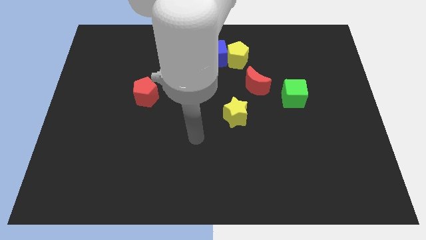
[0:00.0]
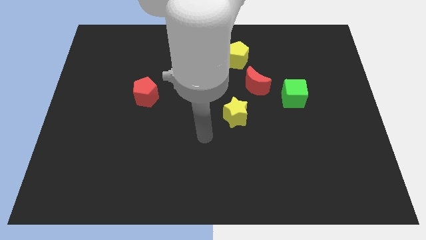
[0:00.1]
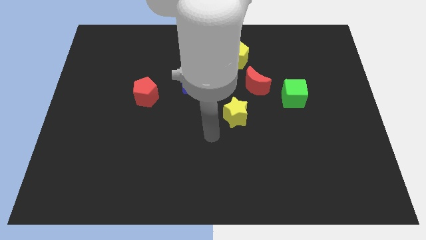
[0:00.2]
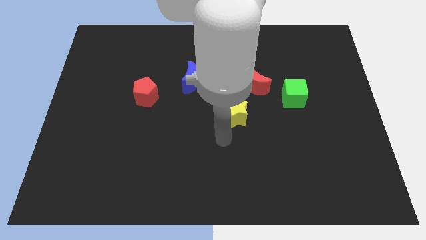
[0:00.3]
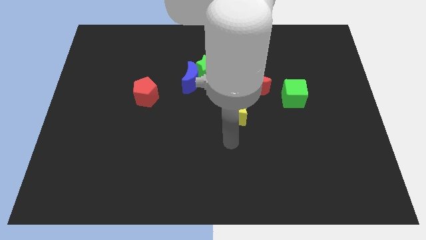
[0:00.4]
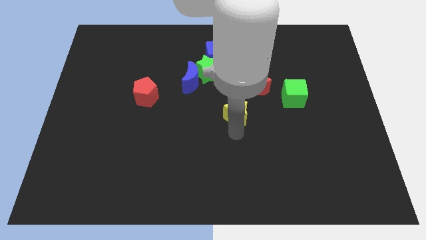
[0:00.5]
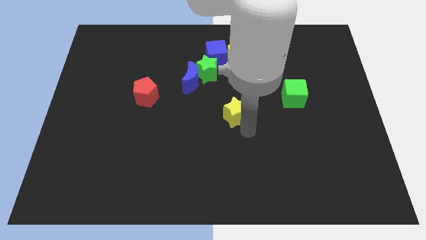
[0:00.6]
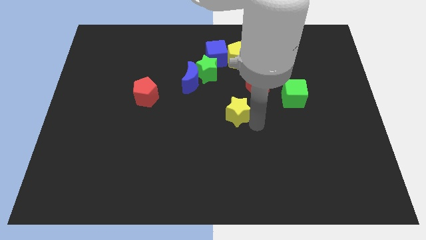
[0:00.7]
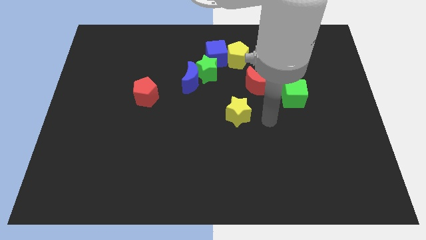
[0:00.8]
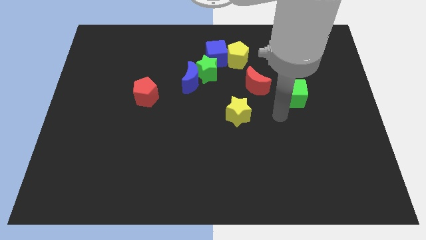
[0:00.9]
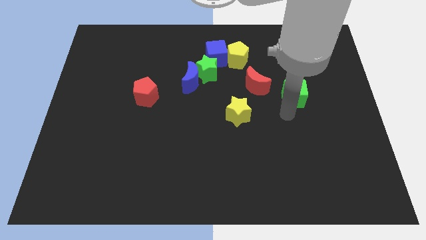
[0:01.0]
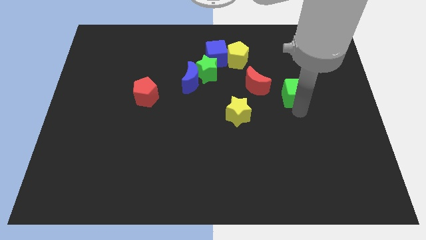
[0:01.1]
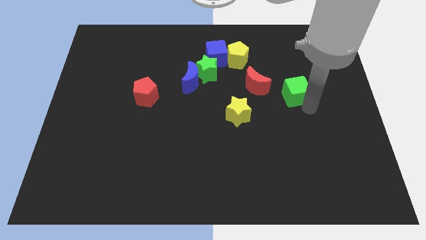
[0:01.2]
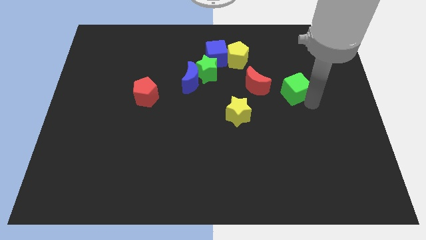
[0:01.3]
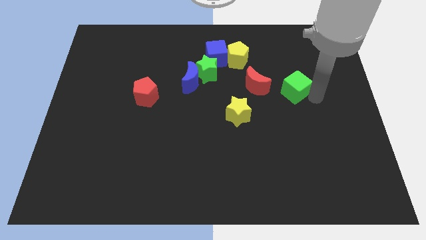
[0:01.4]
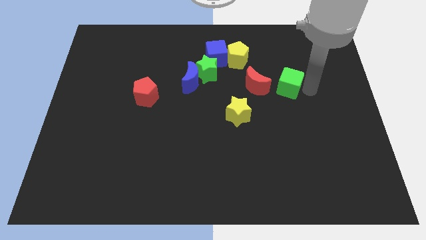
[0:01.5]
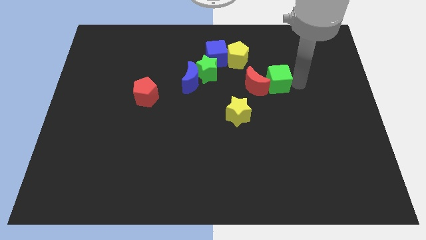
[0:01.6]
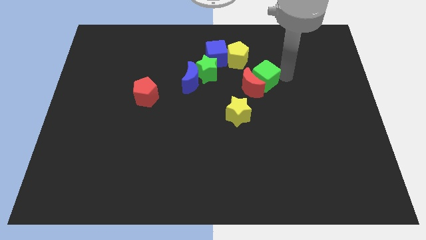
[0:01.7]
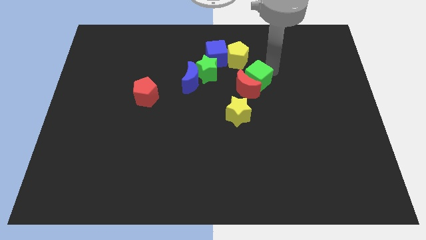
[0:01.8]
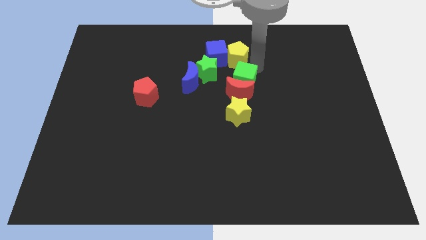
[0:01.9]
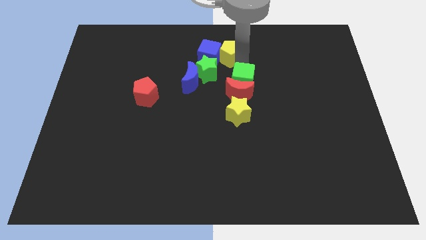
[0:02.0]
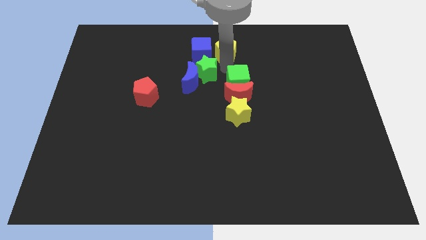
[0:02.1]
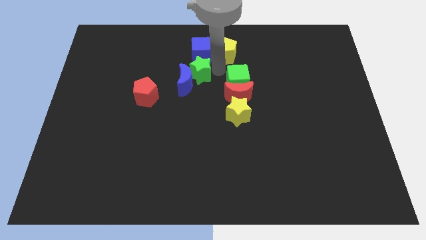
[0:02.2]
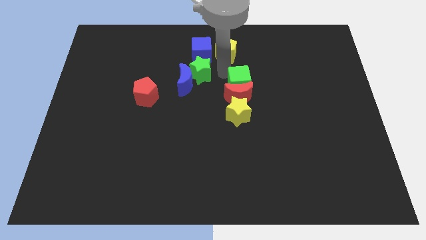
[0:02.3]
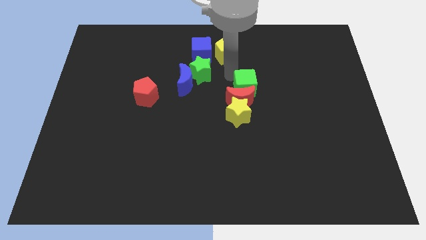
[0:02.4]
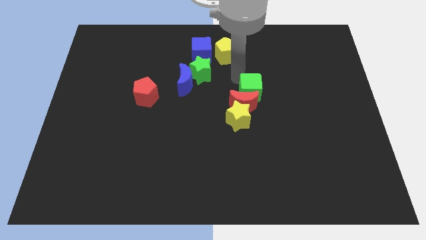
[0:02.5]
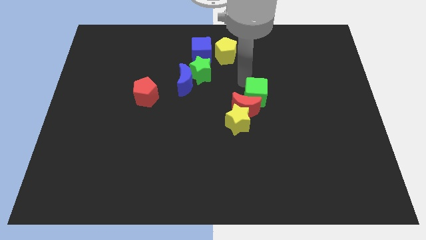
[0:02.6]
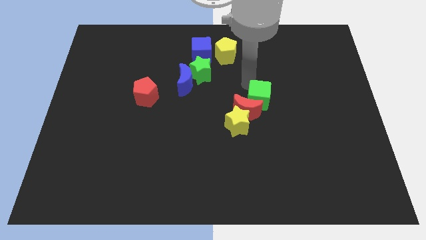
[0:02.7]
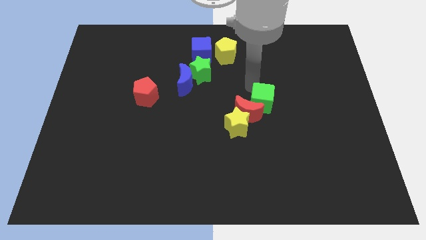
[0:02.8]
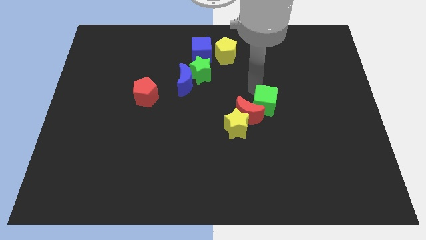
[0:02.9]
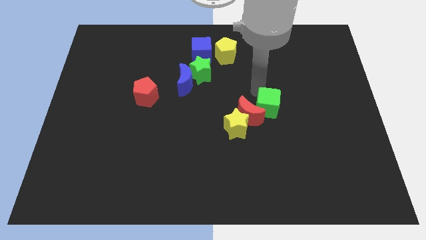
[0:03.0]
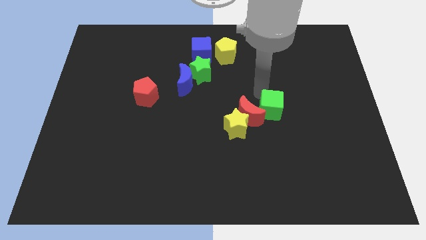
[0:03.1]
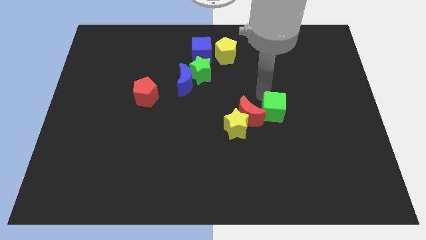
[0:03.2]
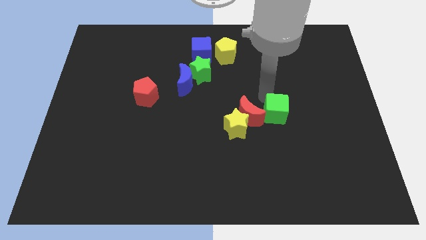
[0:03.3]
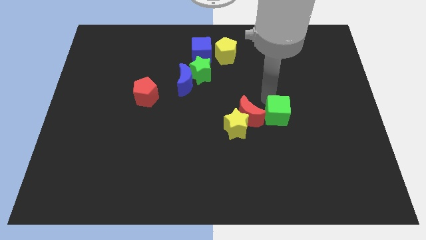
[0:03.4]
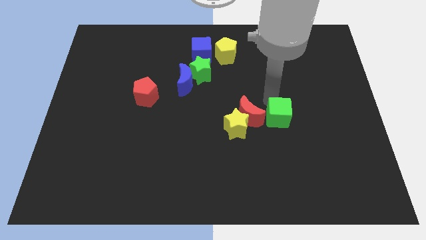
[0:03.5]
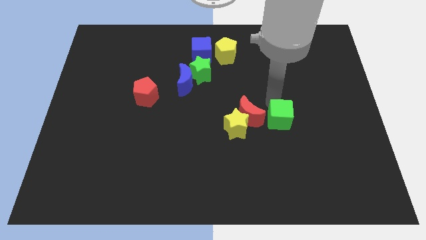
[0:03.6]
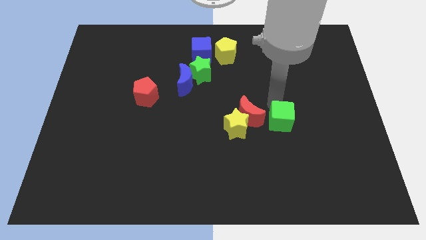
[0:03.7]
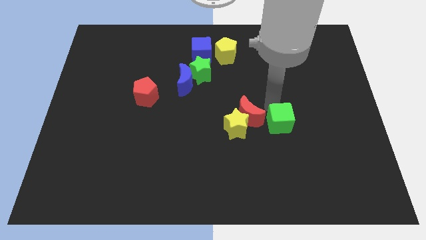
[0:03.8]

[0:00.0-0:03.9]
move the green cube down a little bit

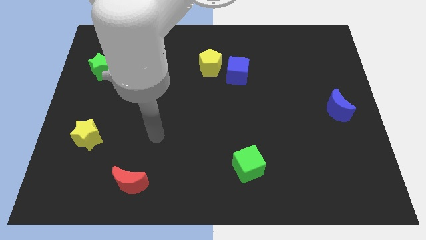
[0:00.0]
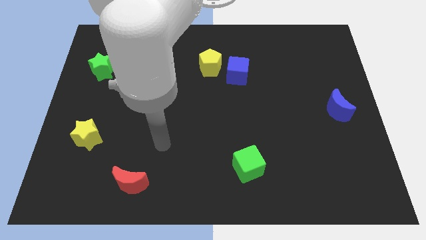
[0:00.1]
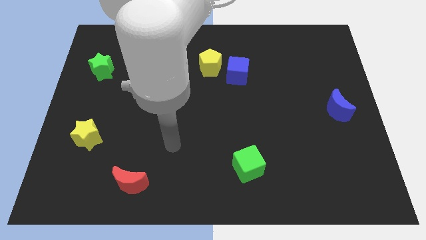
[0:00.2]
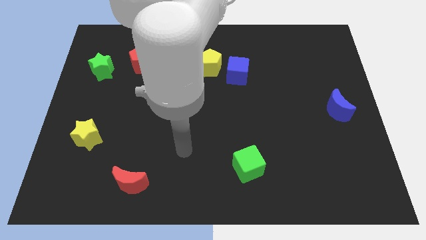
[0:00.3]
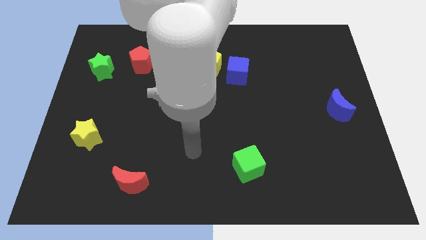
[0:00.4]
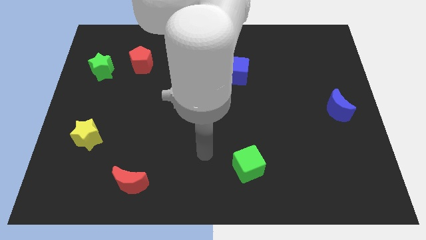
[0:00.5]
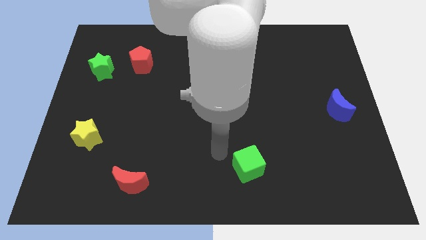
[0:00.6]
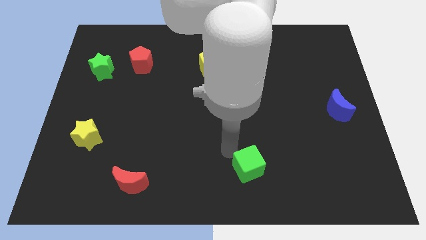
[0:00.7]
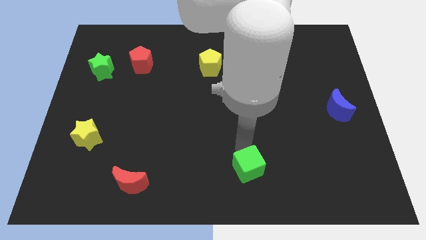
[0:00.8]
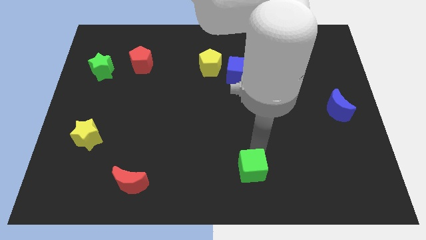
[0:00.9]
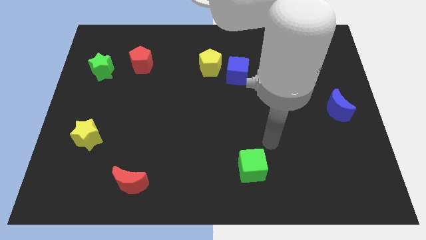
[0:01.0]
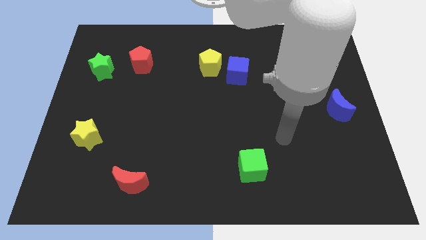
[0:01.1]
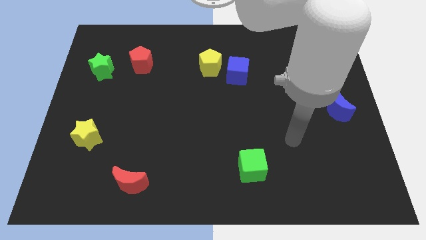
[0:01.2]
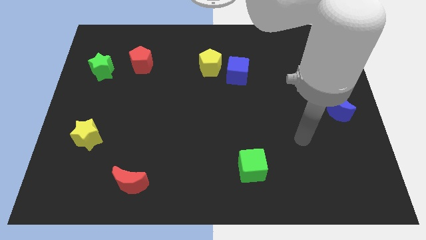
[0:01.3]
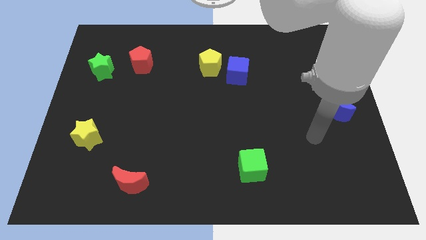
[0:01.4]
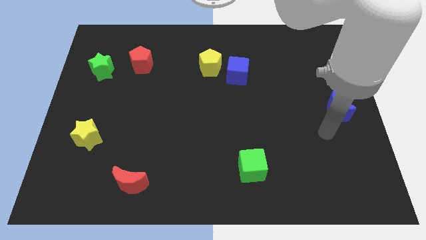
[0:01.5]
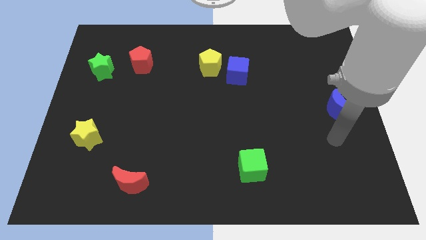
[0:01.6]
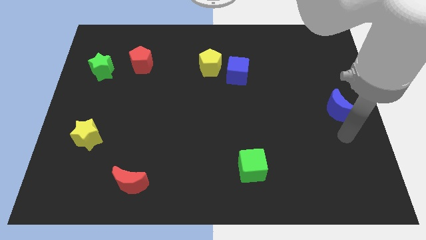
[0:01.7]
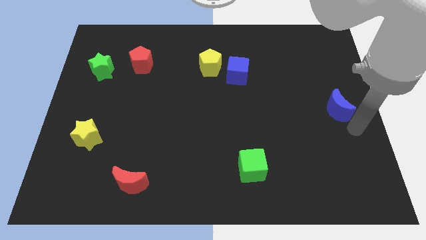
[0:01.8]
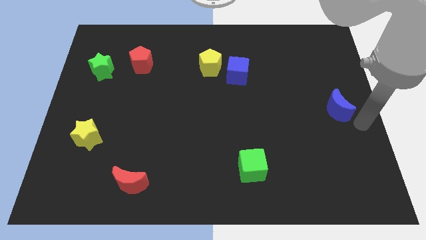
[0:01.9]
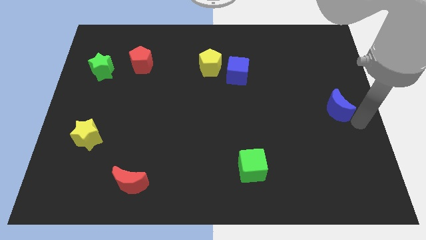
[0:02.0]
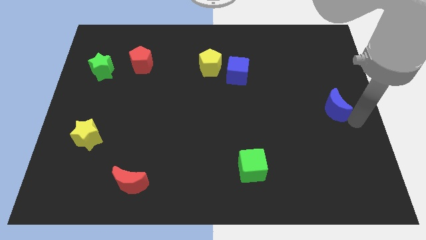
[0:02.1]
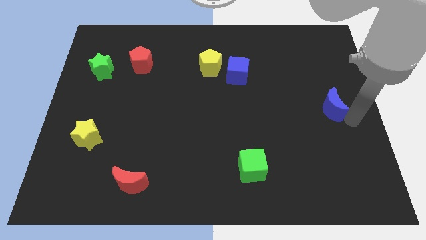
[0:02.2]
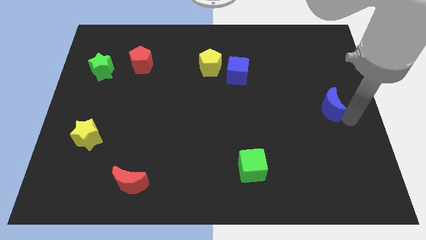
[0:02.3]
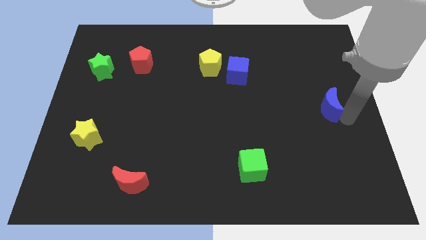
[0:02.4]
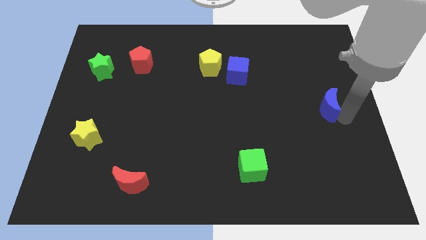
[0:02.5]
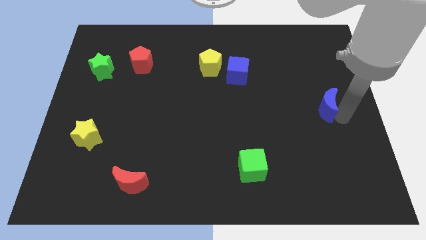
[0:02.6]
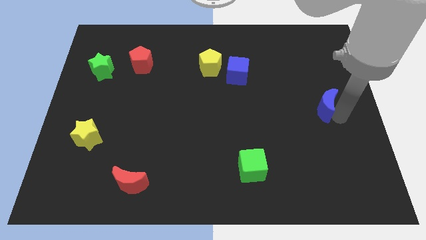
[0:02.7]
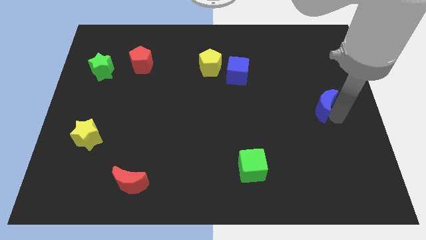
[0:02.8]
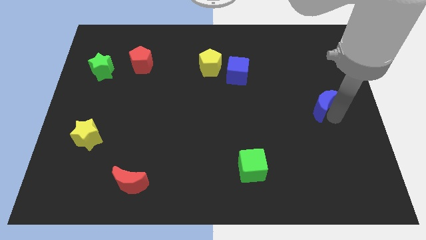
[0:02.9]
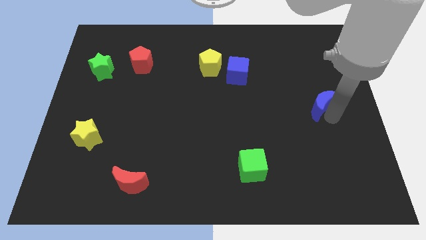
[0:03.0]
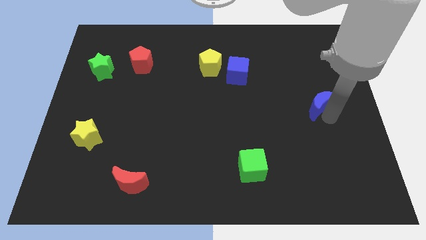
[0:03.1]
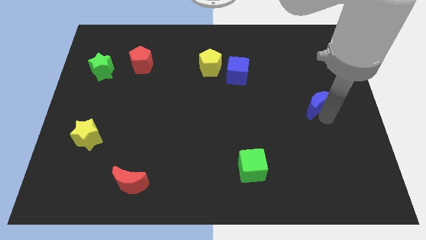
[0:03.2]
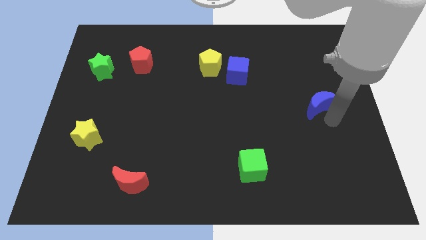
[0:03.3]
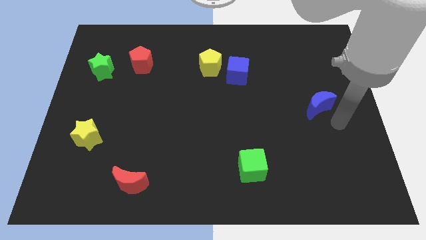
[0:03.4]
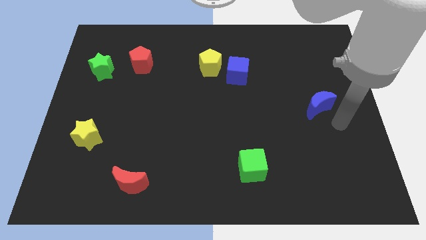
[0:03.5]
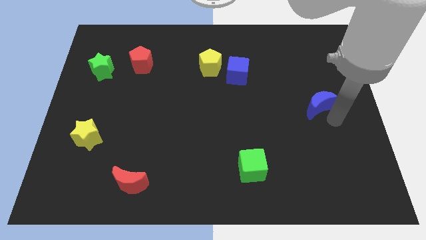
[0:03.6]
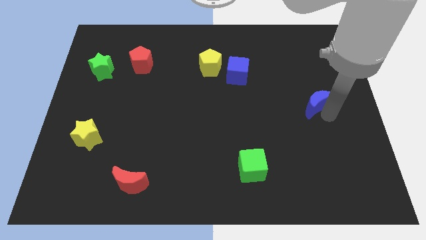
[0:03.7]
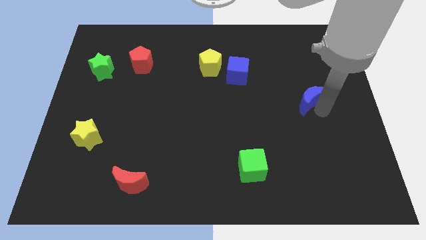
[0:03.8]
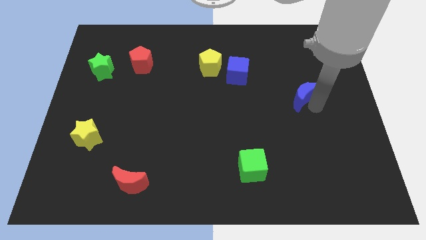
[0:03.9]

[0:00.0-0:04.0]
slightly push the blue moon diagonally upwards and left
